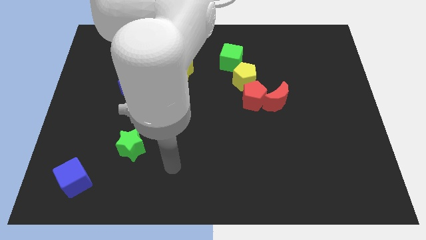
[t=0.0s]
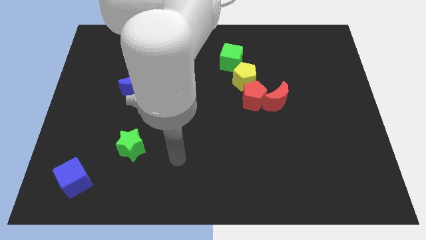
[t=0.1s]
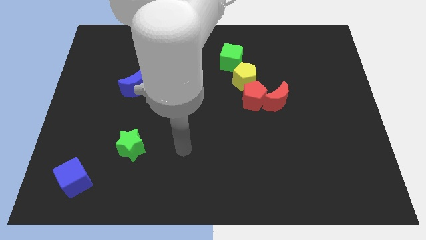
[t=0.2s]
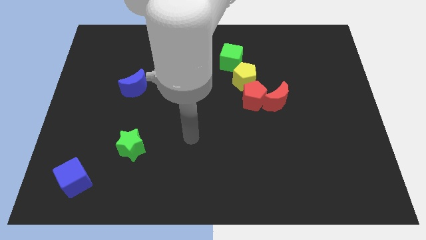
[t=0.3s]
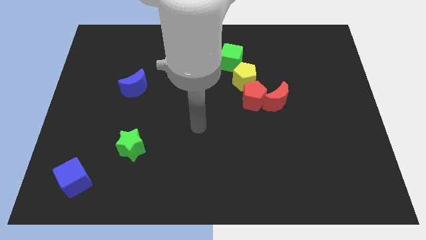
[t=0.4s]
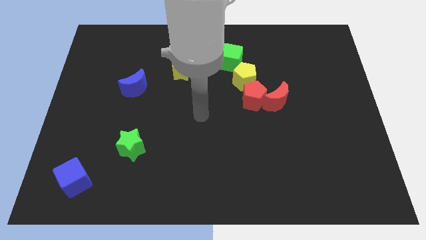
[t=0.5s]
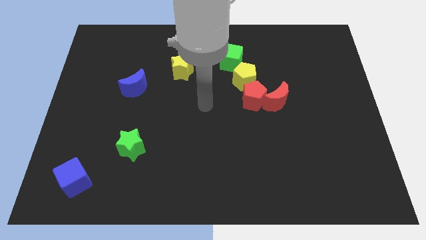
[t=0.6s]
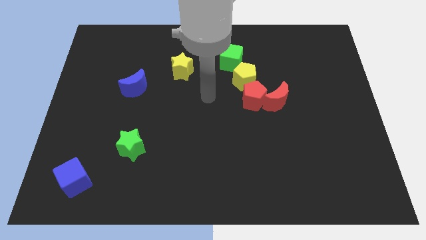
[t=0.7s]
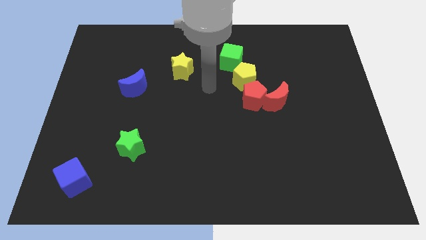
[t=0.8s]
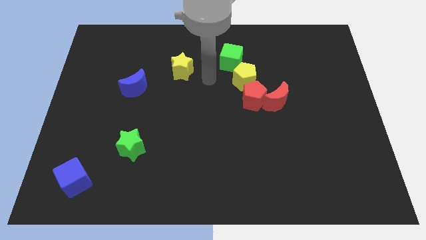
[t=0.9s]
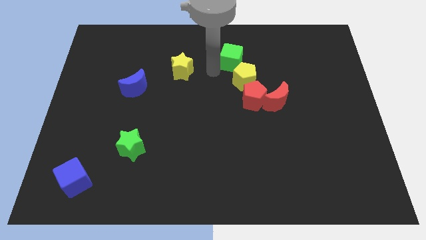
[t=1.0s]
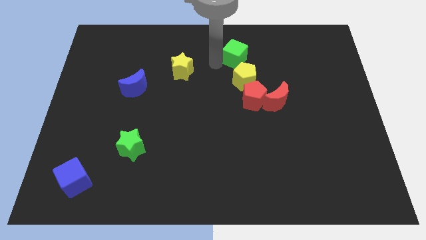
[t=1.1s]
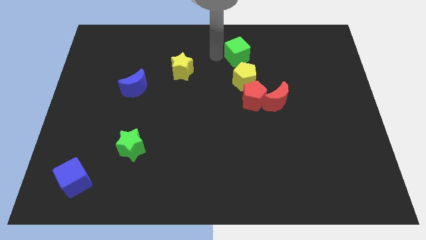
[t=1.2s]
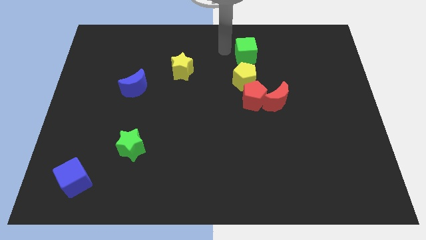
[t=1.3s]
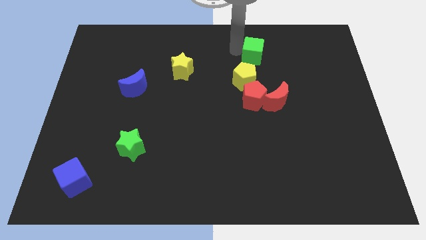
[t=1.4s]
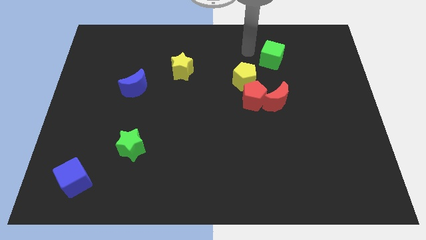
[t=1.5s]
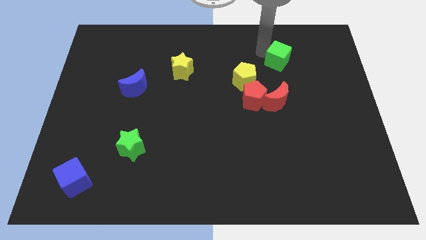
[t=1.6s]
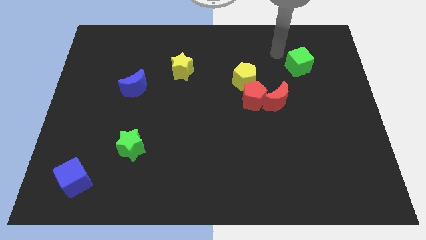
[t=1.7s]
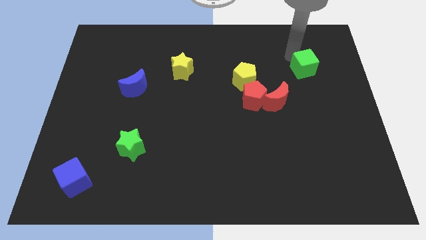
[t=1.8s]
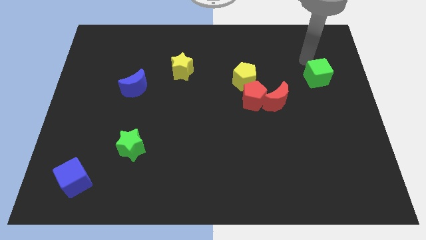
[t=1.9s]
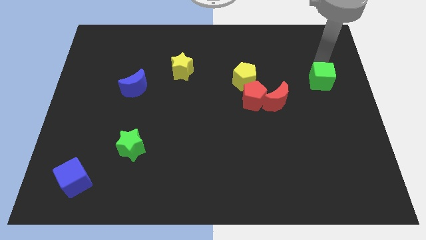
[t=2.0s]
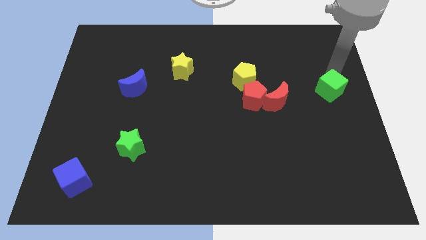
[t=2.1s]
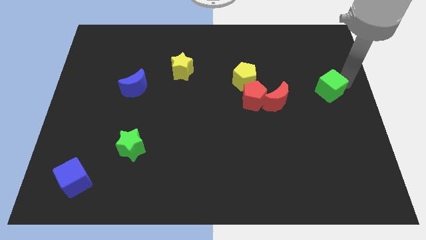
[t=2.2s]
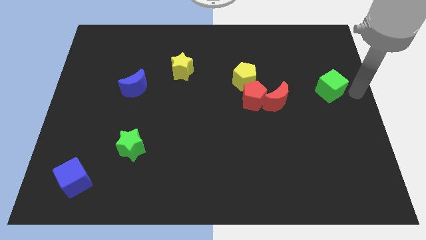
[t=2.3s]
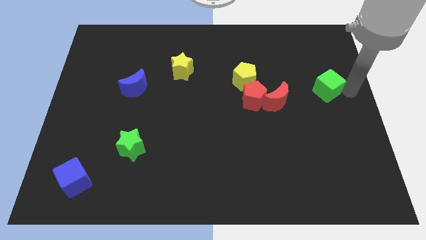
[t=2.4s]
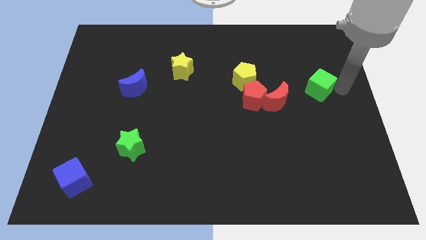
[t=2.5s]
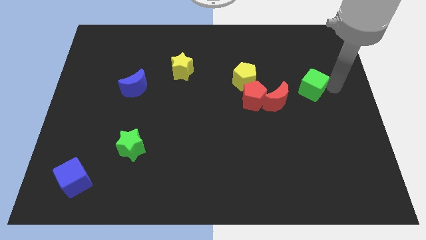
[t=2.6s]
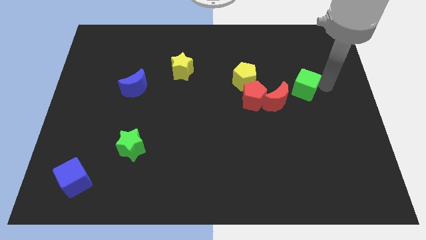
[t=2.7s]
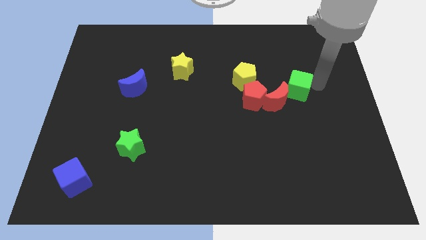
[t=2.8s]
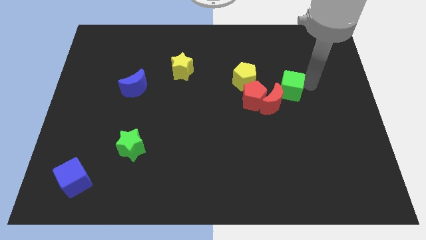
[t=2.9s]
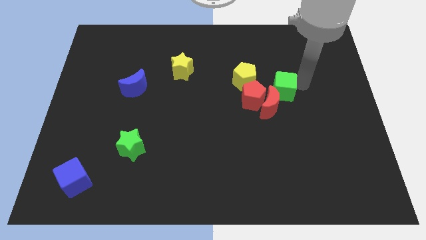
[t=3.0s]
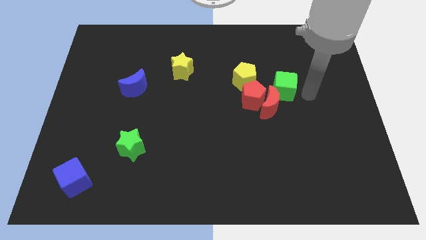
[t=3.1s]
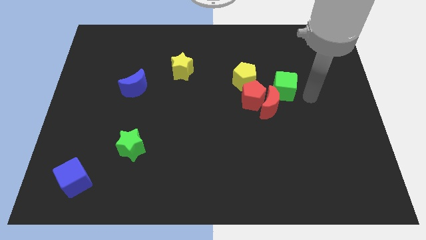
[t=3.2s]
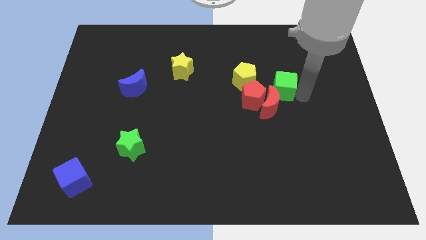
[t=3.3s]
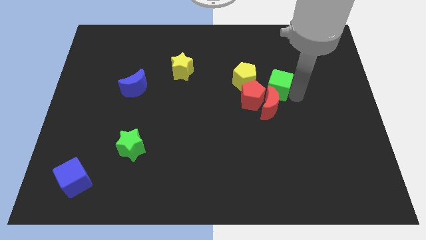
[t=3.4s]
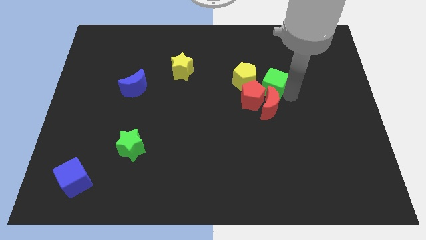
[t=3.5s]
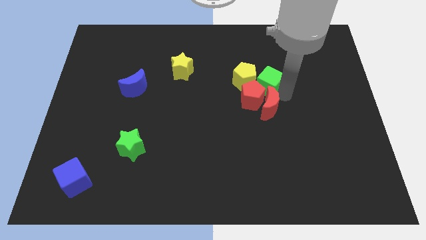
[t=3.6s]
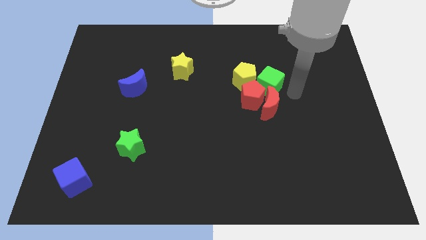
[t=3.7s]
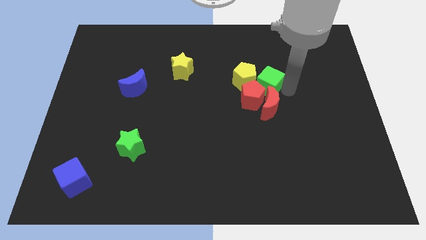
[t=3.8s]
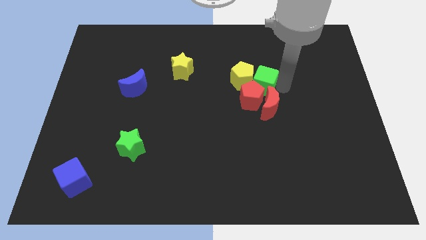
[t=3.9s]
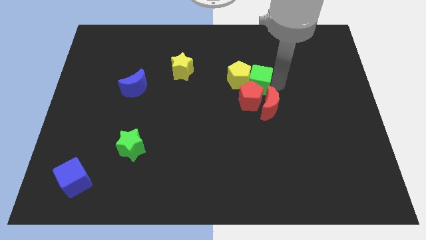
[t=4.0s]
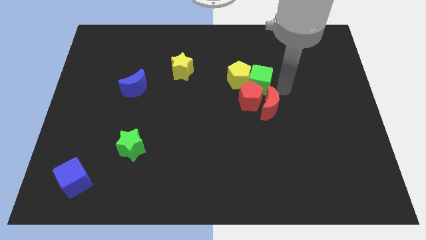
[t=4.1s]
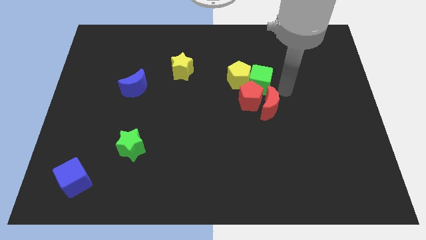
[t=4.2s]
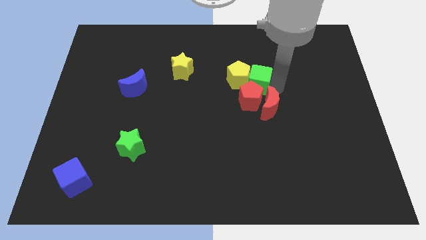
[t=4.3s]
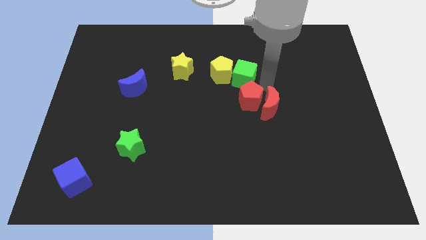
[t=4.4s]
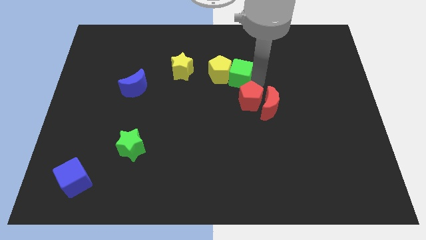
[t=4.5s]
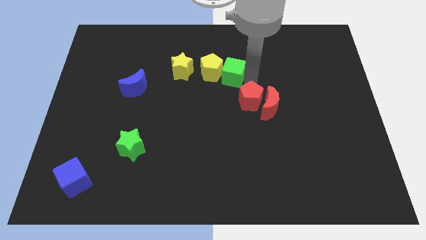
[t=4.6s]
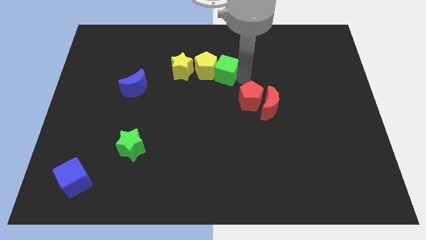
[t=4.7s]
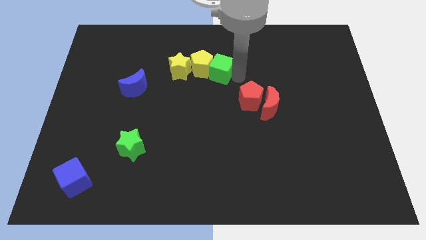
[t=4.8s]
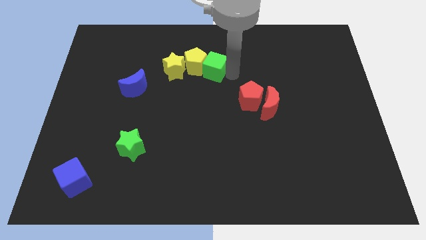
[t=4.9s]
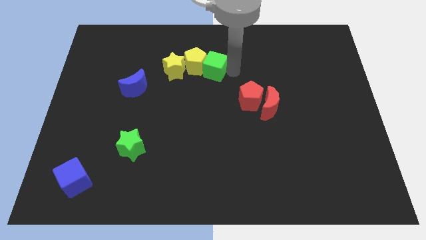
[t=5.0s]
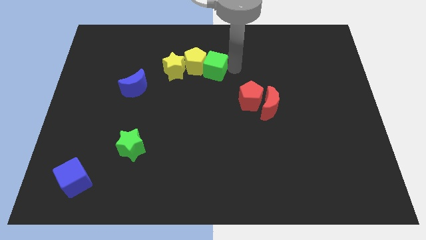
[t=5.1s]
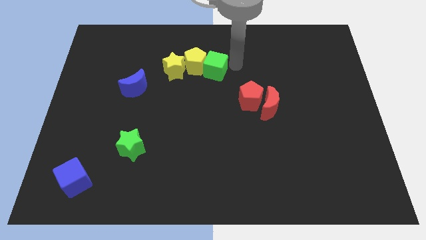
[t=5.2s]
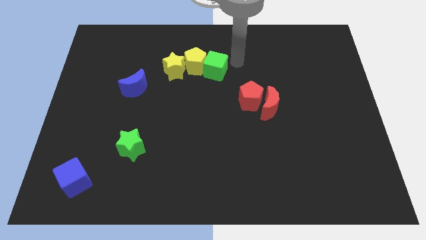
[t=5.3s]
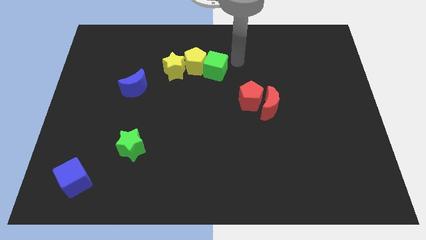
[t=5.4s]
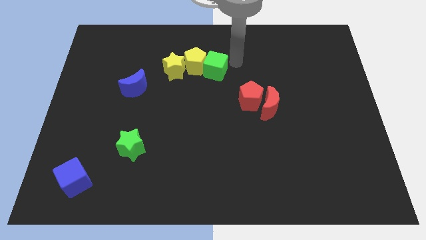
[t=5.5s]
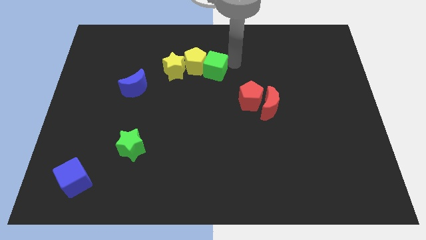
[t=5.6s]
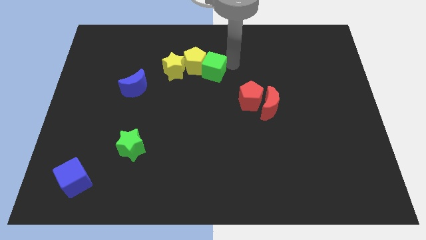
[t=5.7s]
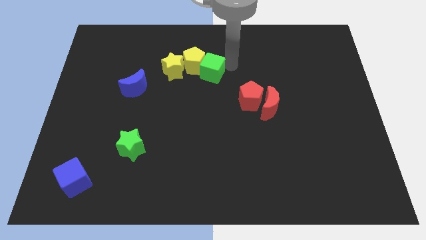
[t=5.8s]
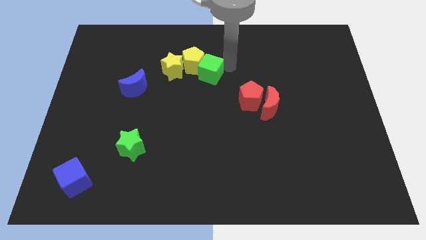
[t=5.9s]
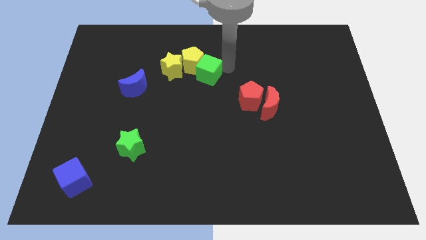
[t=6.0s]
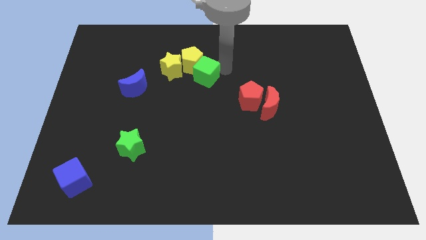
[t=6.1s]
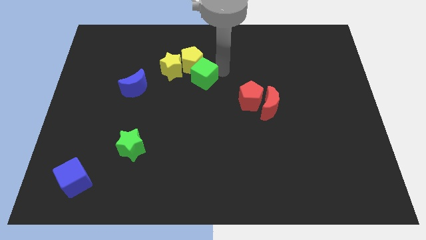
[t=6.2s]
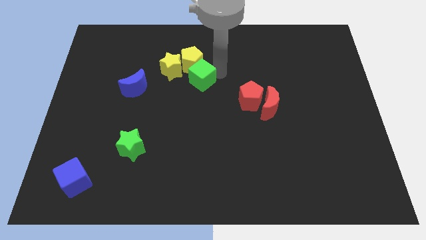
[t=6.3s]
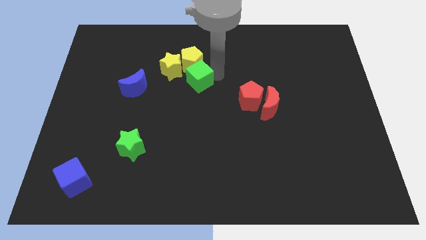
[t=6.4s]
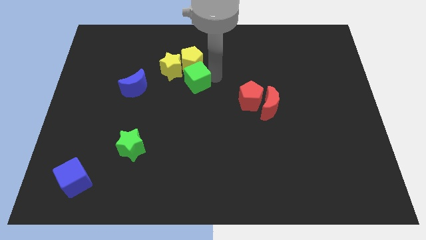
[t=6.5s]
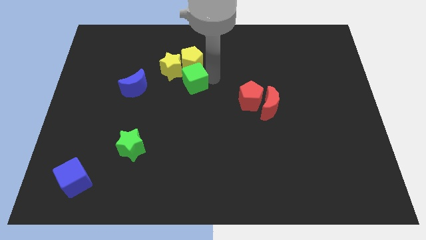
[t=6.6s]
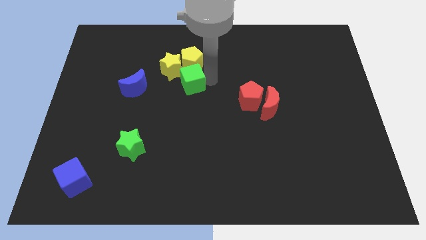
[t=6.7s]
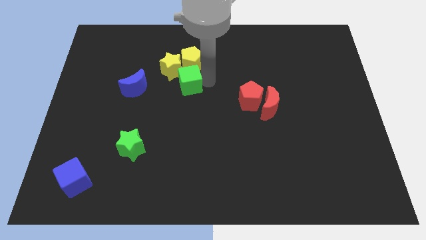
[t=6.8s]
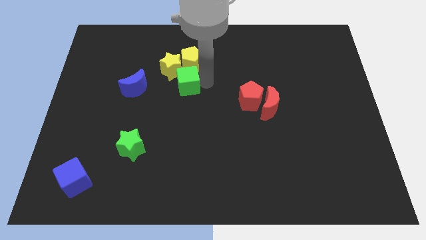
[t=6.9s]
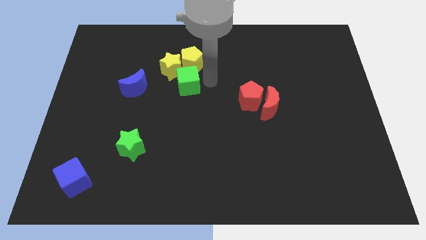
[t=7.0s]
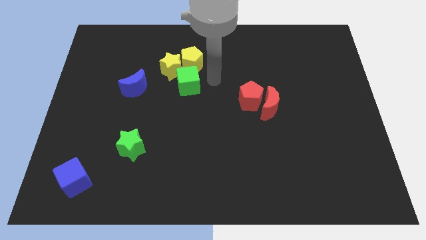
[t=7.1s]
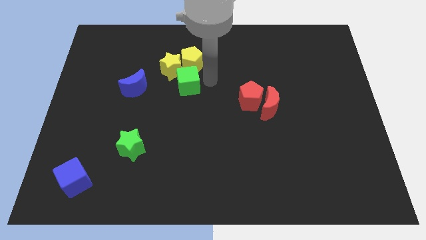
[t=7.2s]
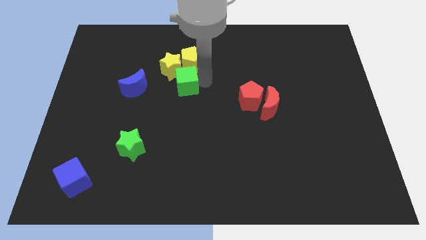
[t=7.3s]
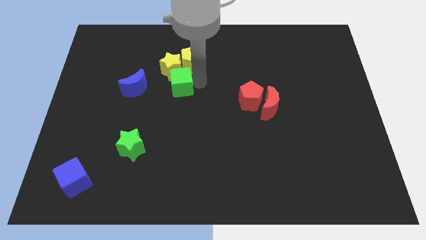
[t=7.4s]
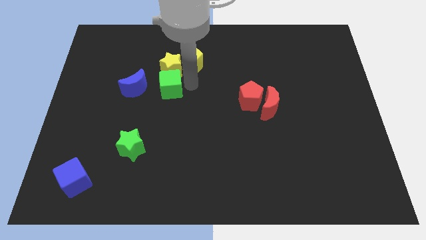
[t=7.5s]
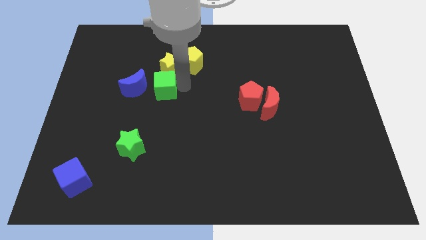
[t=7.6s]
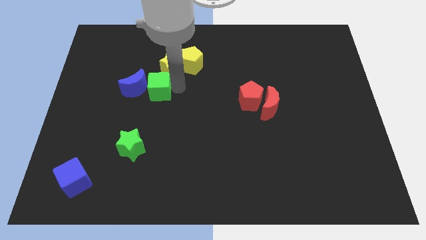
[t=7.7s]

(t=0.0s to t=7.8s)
push the green cube to the blue moon
